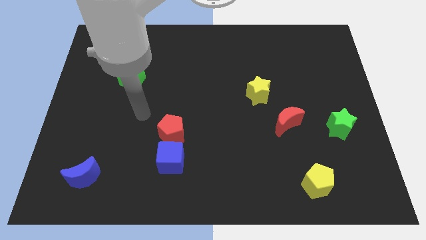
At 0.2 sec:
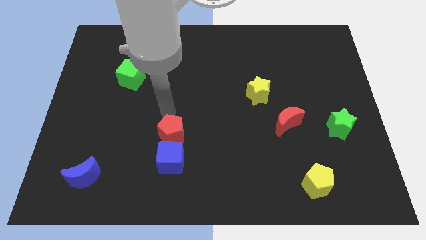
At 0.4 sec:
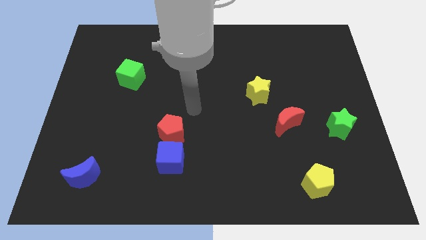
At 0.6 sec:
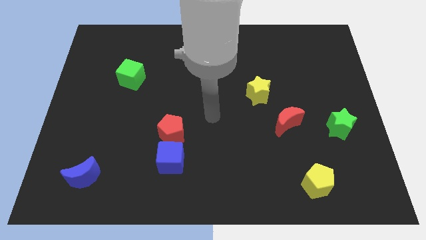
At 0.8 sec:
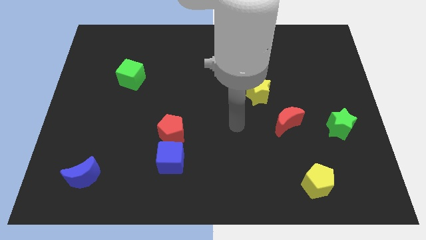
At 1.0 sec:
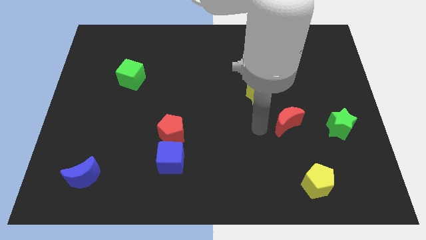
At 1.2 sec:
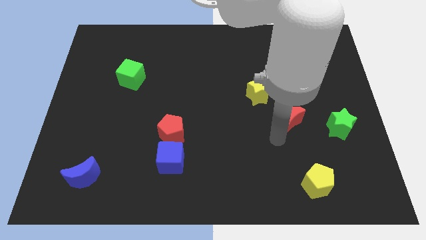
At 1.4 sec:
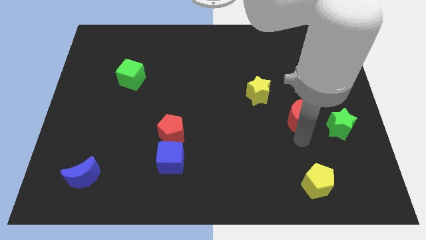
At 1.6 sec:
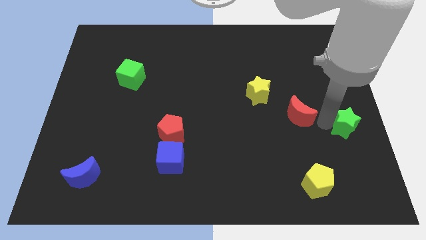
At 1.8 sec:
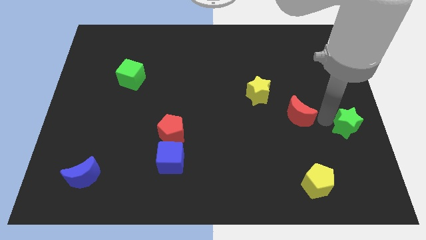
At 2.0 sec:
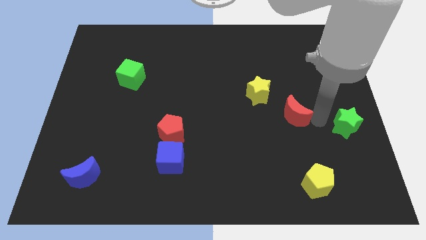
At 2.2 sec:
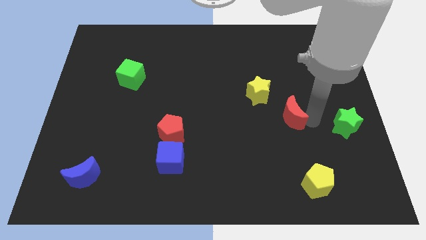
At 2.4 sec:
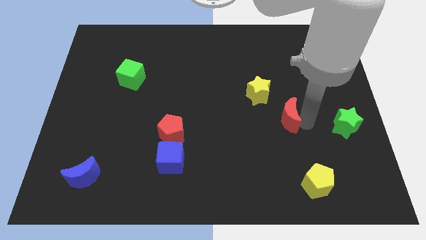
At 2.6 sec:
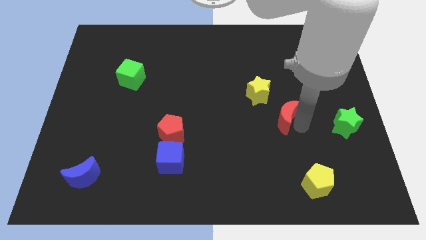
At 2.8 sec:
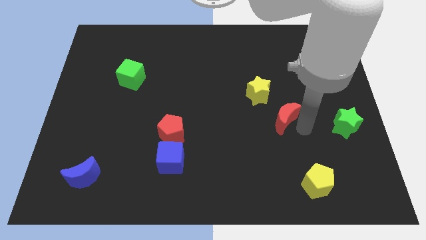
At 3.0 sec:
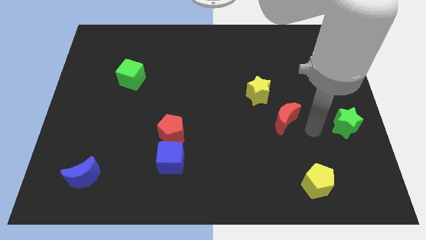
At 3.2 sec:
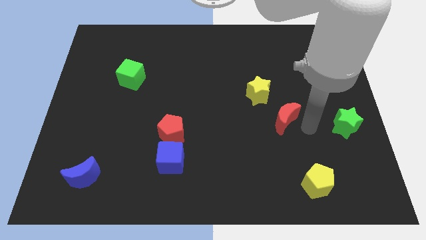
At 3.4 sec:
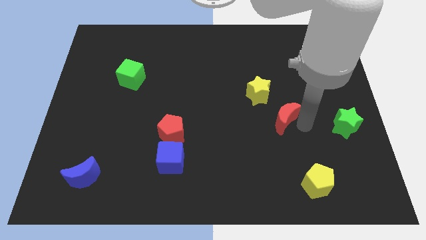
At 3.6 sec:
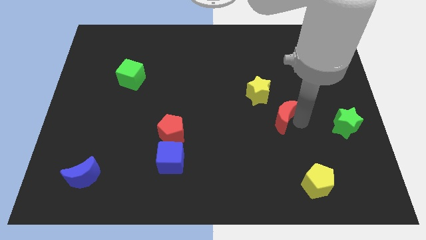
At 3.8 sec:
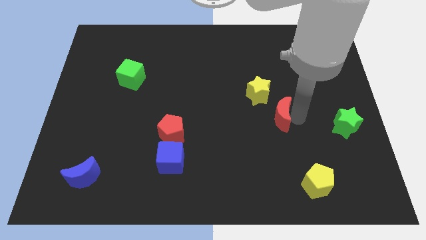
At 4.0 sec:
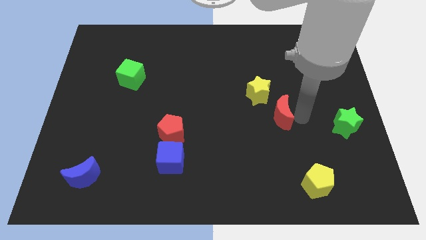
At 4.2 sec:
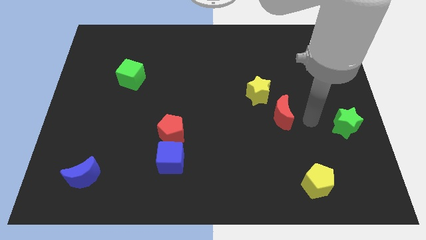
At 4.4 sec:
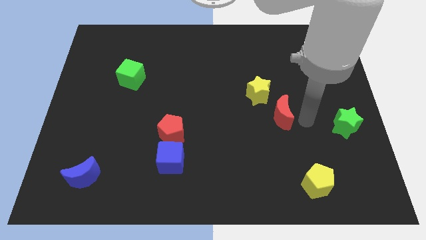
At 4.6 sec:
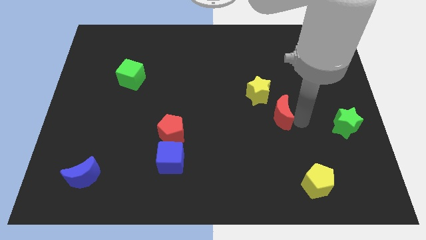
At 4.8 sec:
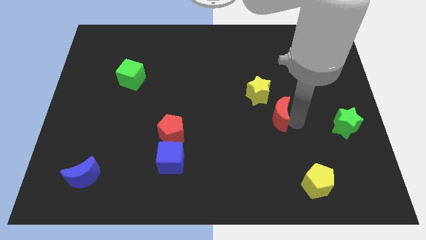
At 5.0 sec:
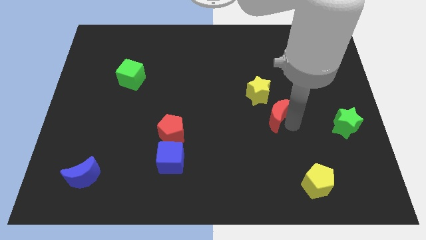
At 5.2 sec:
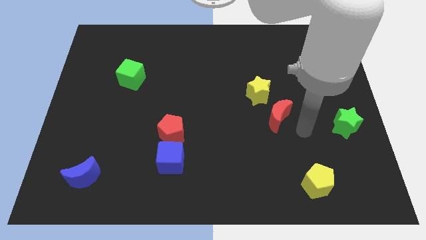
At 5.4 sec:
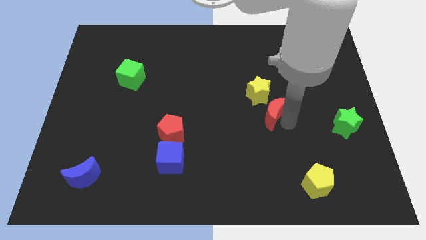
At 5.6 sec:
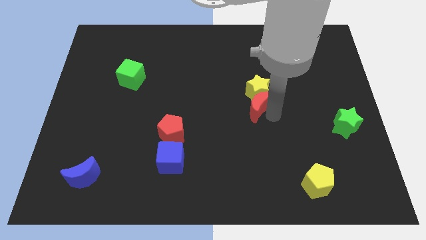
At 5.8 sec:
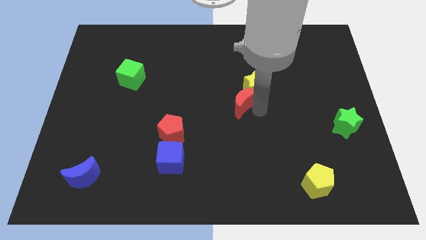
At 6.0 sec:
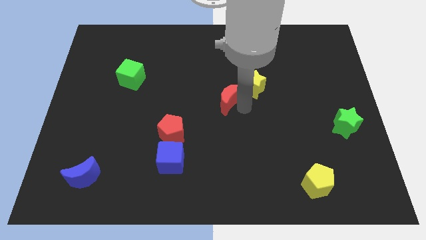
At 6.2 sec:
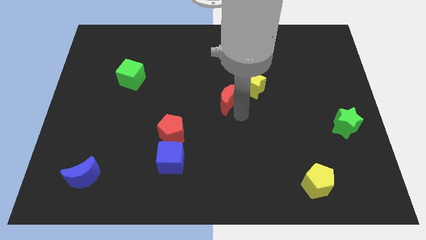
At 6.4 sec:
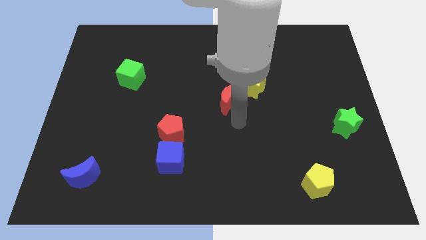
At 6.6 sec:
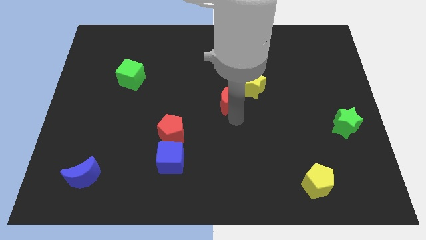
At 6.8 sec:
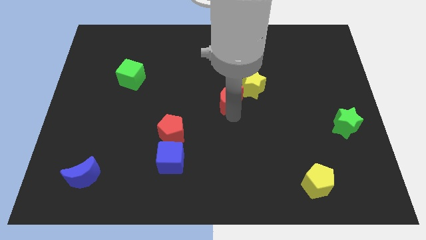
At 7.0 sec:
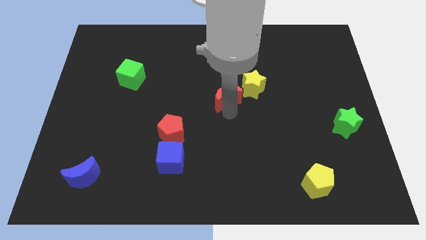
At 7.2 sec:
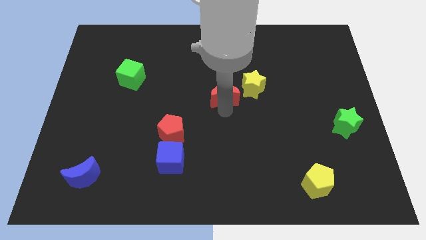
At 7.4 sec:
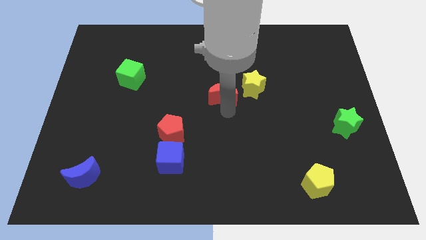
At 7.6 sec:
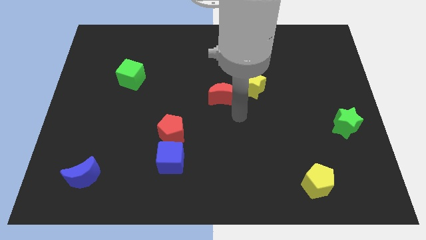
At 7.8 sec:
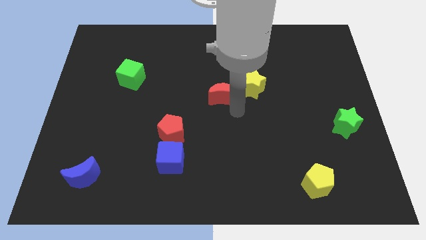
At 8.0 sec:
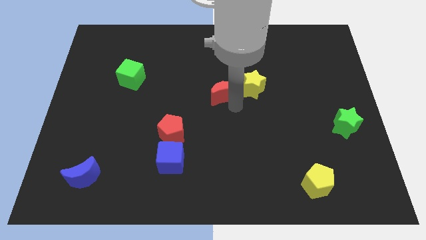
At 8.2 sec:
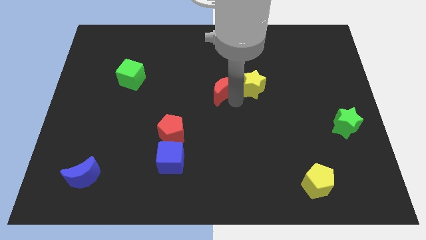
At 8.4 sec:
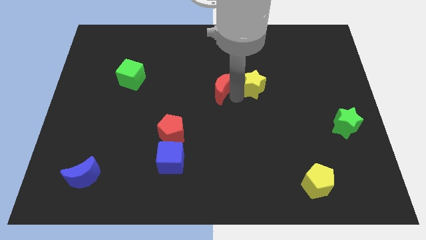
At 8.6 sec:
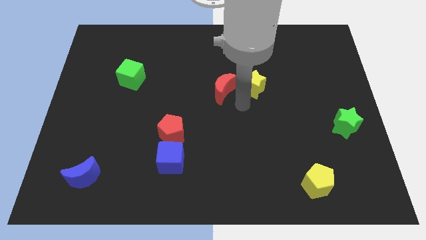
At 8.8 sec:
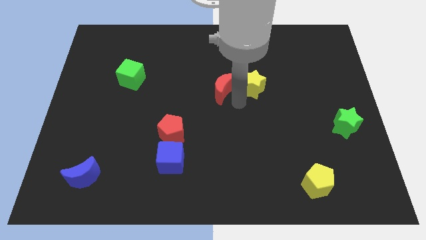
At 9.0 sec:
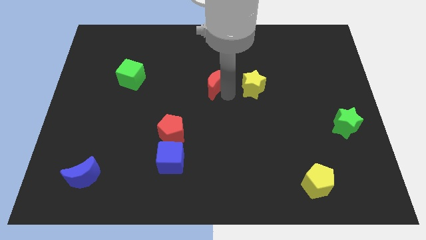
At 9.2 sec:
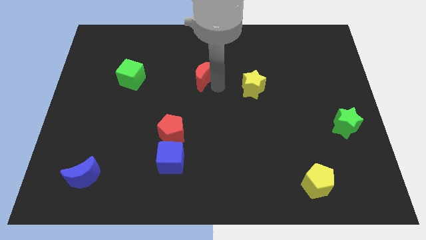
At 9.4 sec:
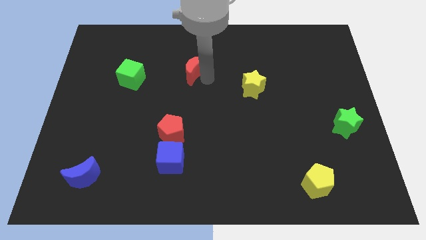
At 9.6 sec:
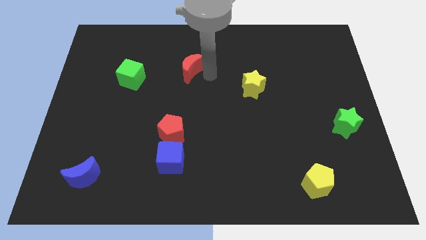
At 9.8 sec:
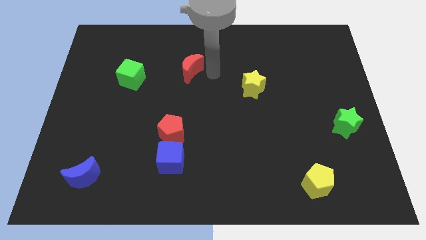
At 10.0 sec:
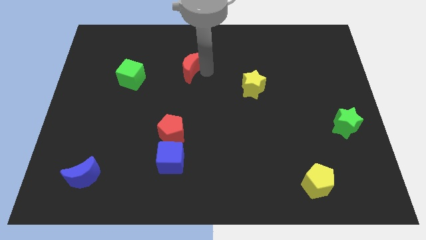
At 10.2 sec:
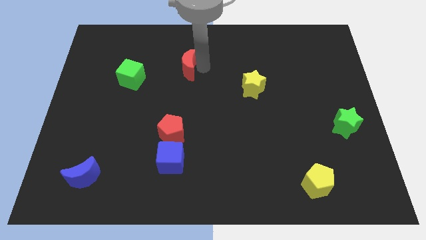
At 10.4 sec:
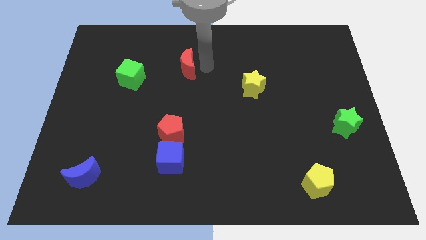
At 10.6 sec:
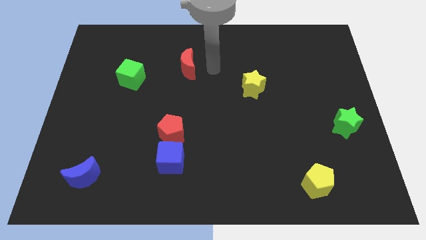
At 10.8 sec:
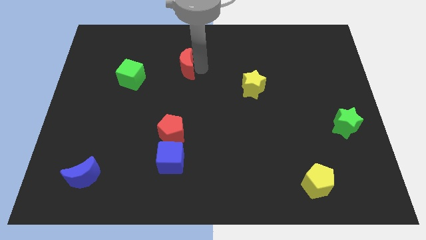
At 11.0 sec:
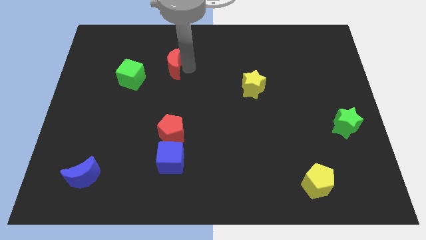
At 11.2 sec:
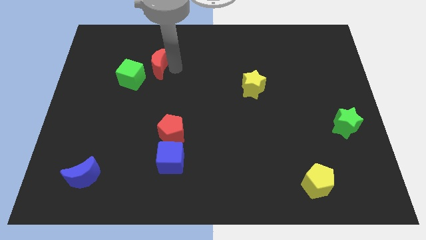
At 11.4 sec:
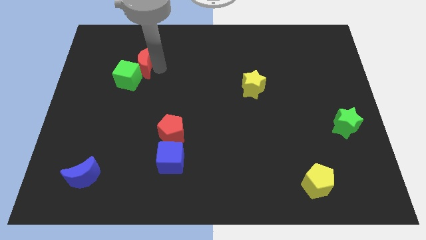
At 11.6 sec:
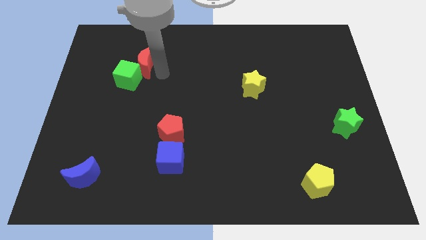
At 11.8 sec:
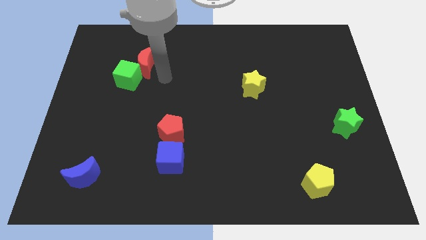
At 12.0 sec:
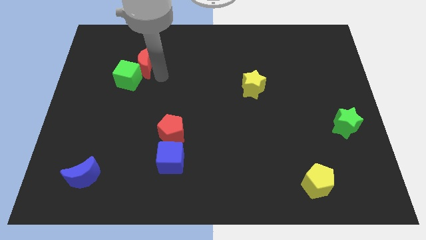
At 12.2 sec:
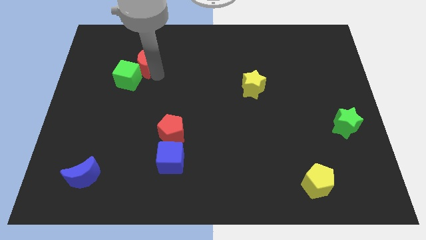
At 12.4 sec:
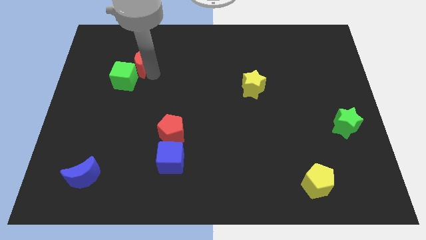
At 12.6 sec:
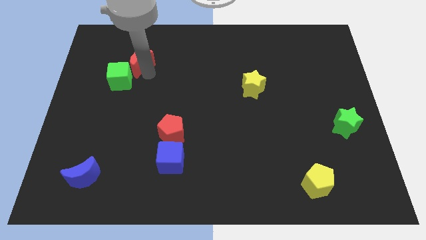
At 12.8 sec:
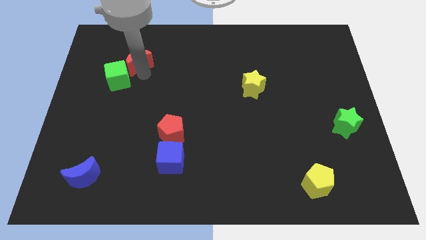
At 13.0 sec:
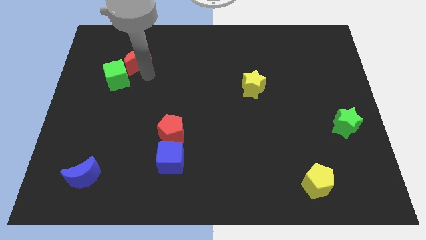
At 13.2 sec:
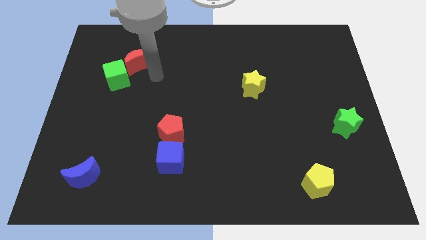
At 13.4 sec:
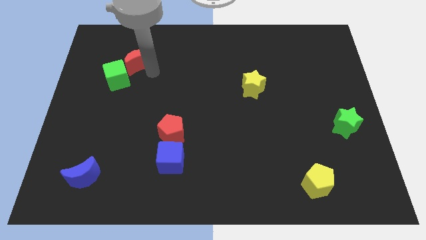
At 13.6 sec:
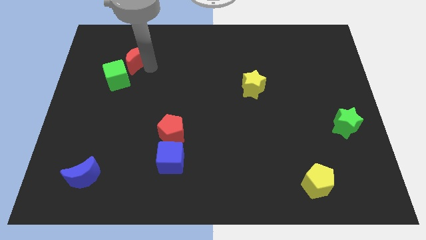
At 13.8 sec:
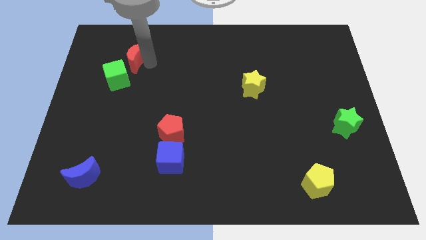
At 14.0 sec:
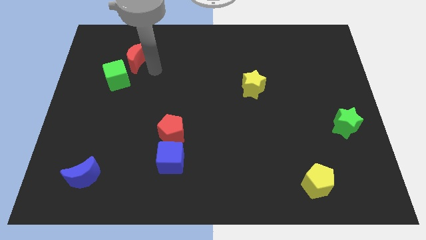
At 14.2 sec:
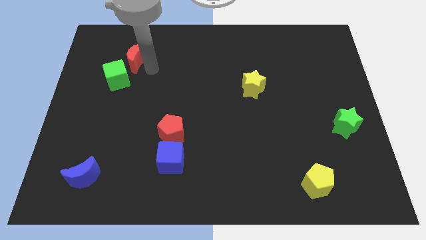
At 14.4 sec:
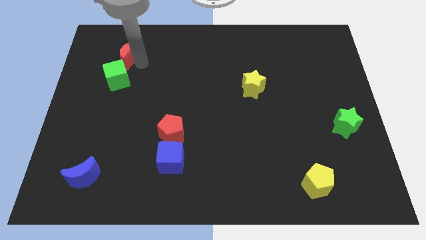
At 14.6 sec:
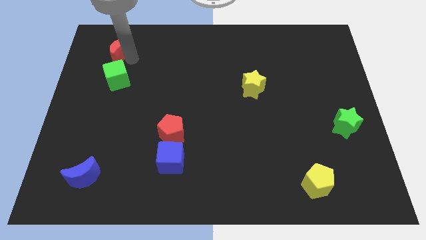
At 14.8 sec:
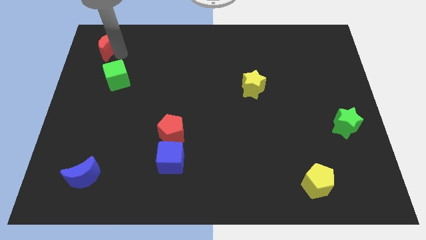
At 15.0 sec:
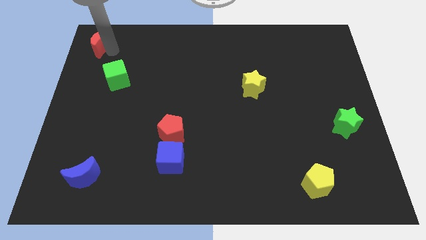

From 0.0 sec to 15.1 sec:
push the red moon to the upper left corner
